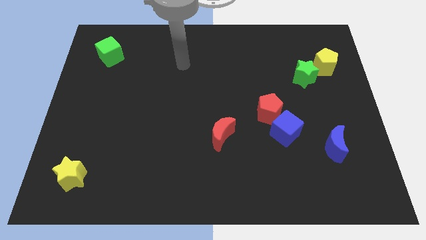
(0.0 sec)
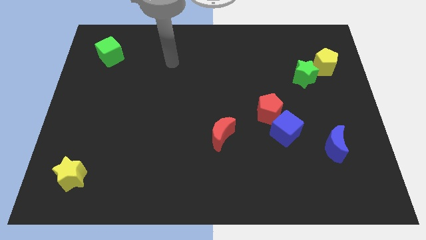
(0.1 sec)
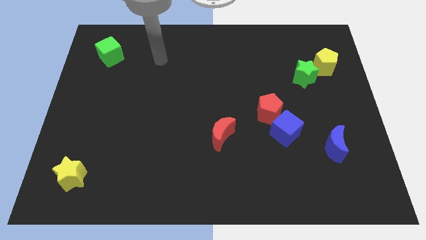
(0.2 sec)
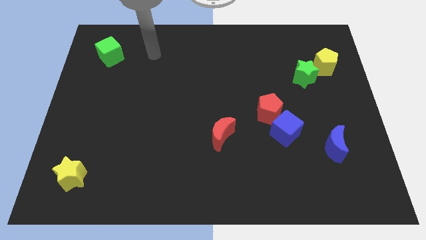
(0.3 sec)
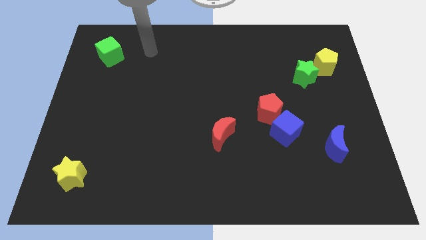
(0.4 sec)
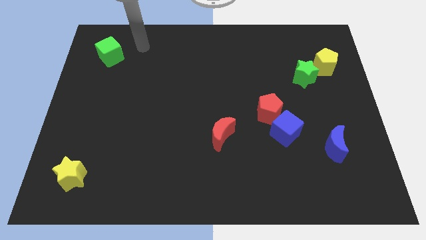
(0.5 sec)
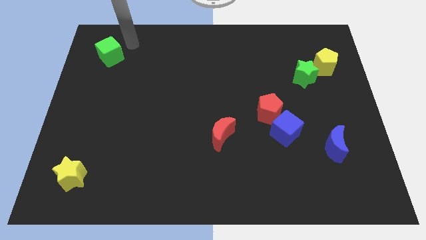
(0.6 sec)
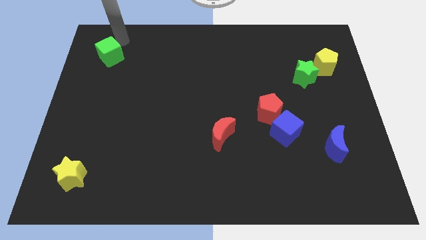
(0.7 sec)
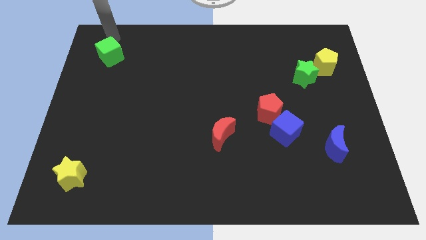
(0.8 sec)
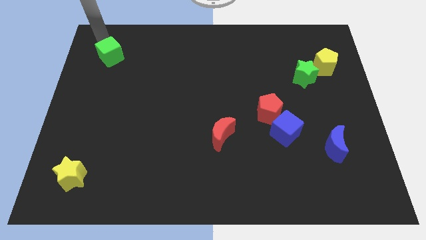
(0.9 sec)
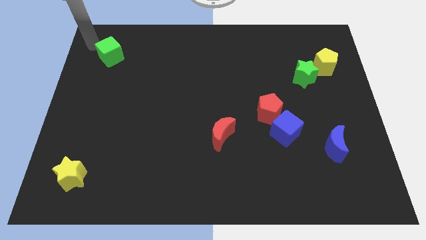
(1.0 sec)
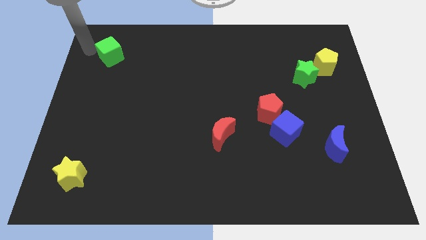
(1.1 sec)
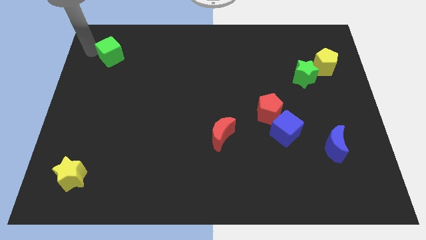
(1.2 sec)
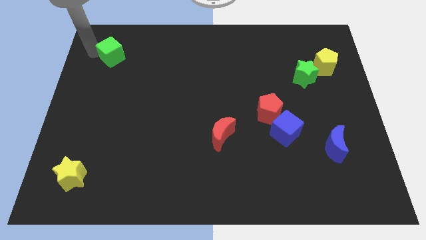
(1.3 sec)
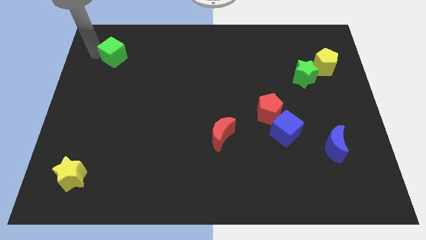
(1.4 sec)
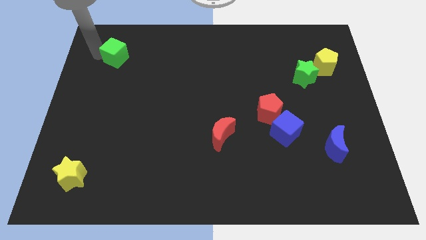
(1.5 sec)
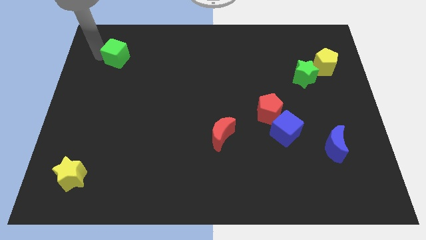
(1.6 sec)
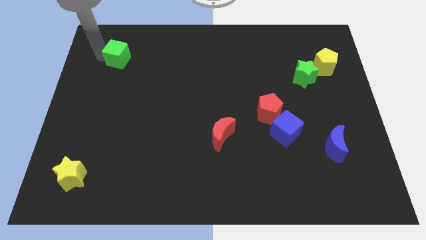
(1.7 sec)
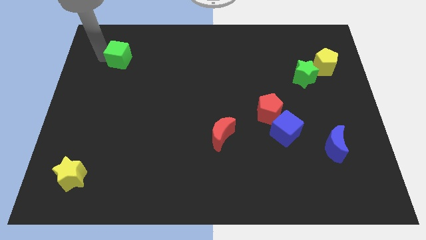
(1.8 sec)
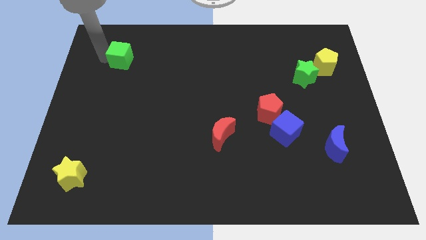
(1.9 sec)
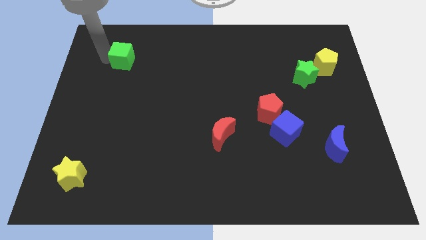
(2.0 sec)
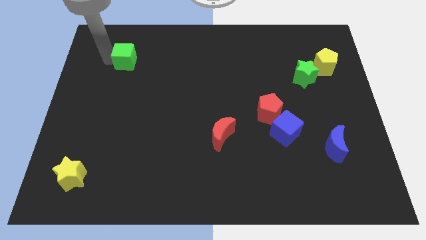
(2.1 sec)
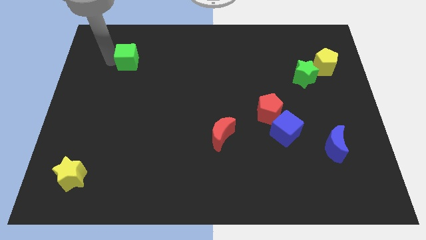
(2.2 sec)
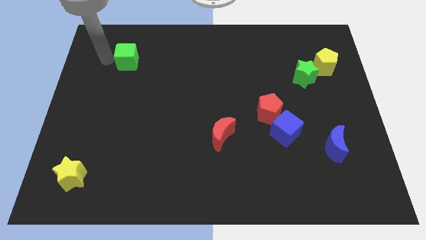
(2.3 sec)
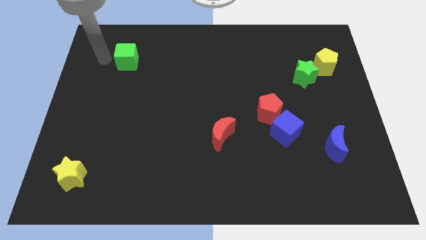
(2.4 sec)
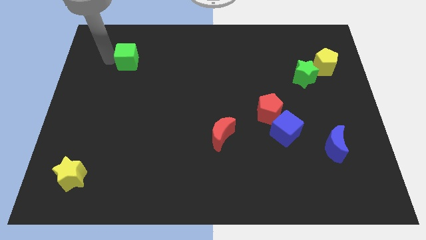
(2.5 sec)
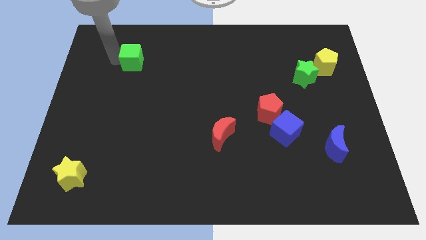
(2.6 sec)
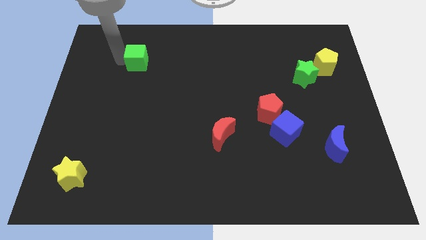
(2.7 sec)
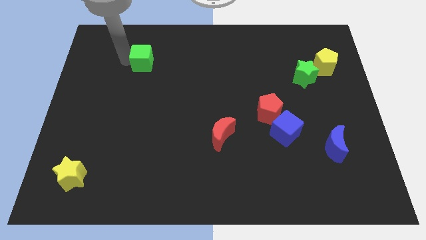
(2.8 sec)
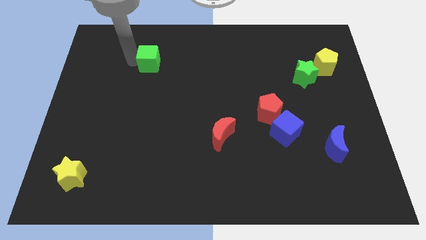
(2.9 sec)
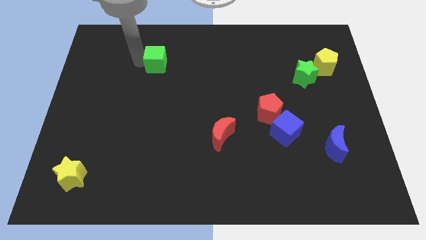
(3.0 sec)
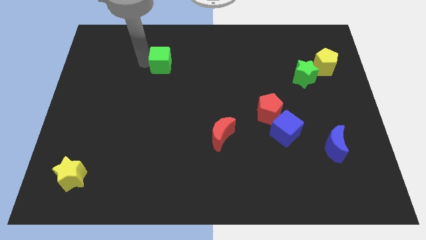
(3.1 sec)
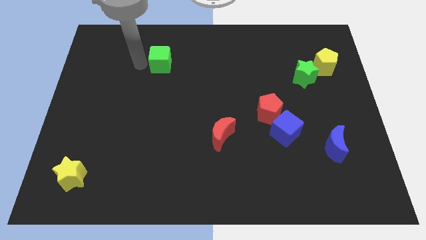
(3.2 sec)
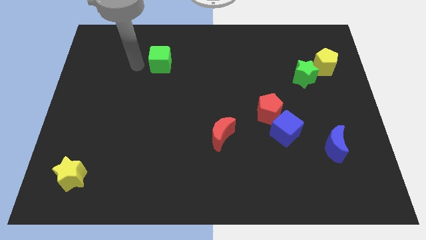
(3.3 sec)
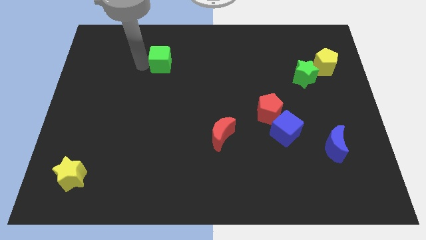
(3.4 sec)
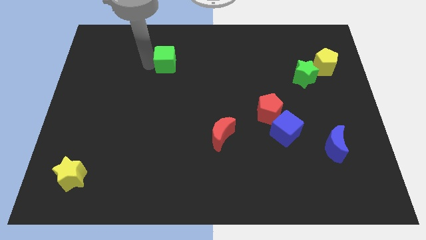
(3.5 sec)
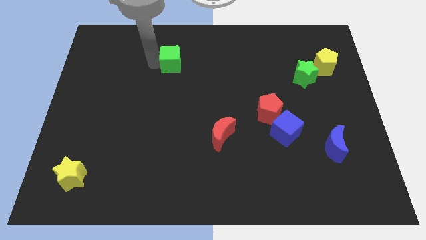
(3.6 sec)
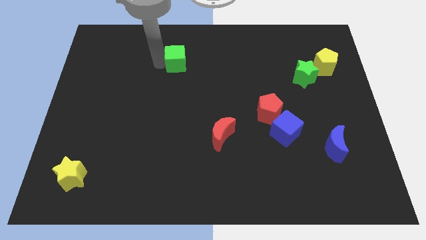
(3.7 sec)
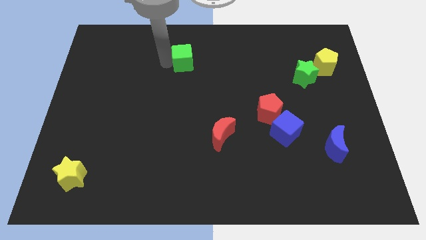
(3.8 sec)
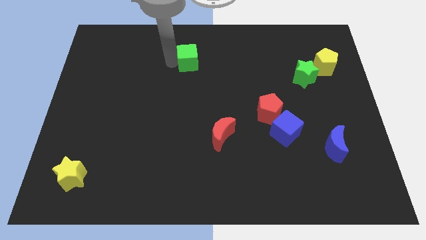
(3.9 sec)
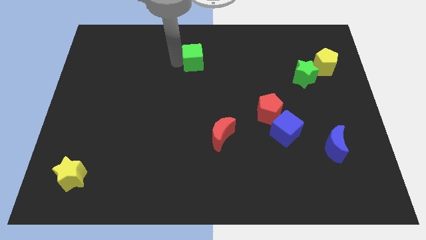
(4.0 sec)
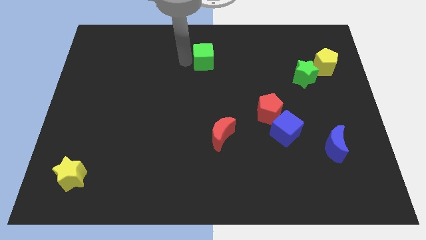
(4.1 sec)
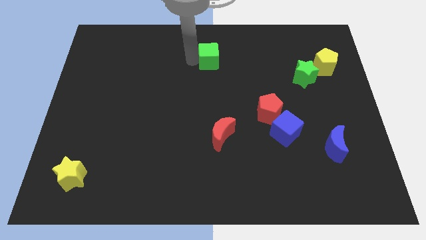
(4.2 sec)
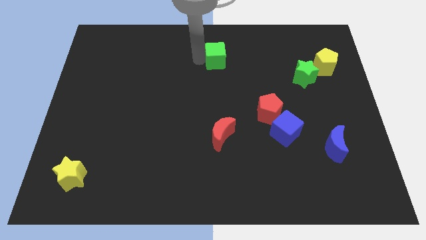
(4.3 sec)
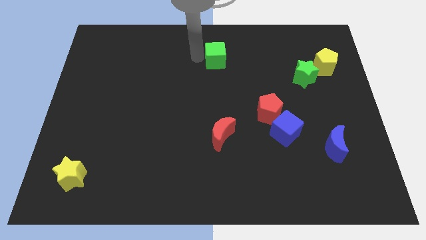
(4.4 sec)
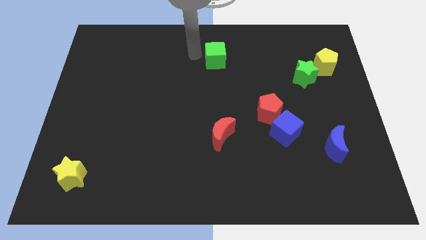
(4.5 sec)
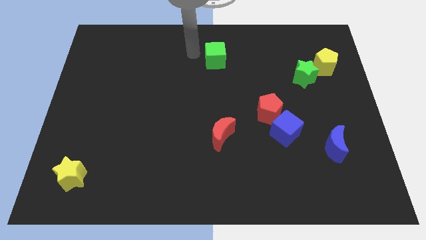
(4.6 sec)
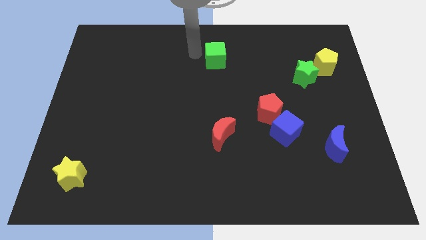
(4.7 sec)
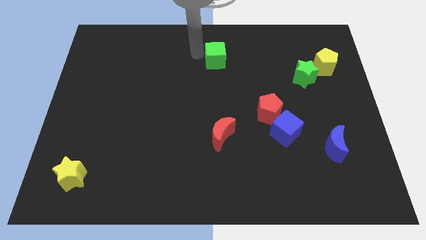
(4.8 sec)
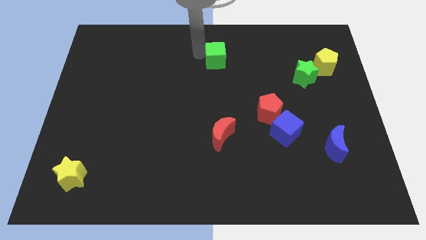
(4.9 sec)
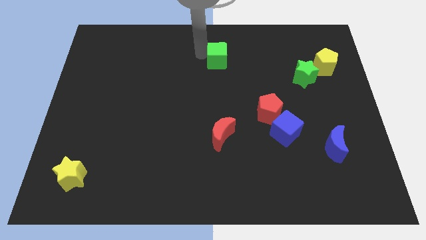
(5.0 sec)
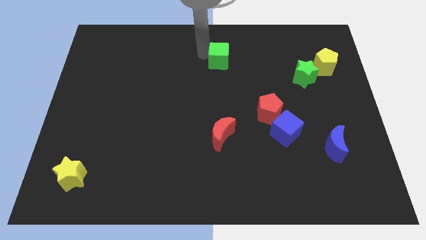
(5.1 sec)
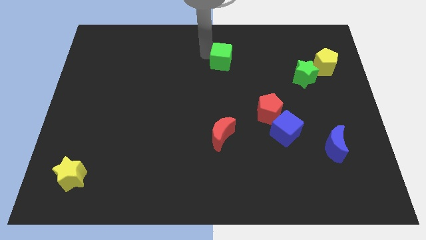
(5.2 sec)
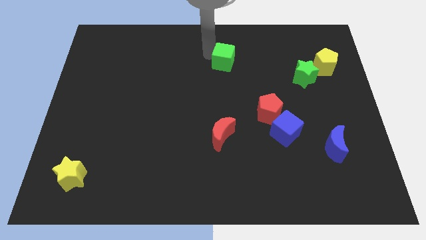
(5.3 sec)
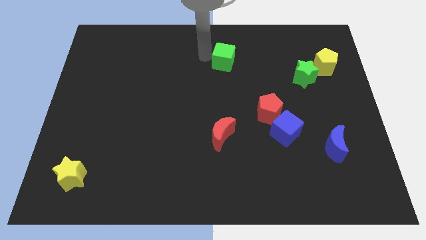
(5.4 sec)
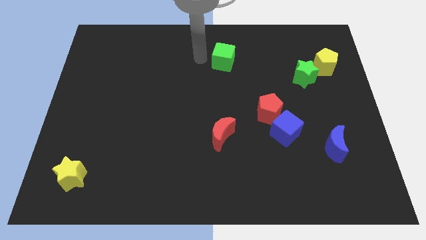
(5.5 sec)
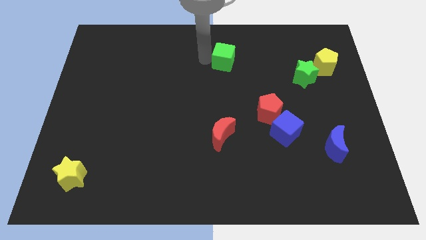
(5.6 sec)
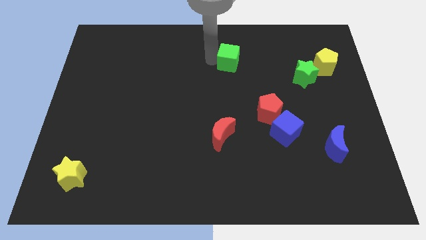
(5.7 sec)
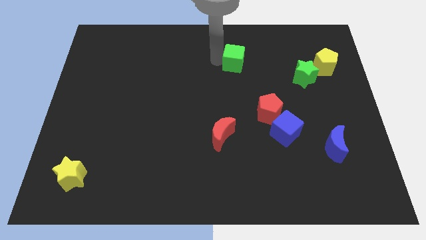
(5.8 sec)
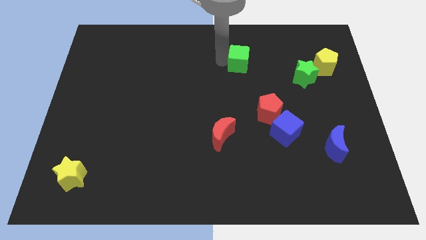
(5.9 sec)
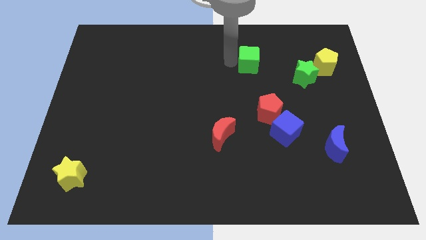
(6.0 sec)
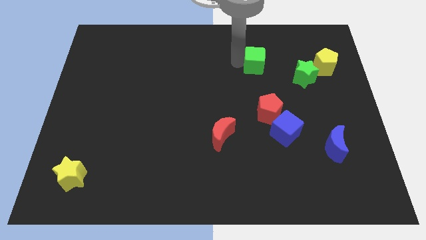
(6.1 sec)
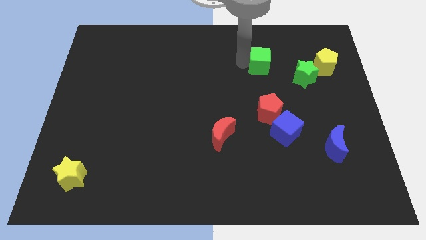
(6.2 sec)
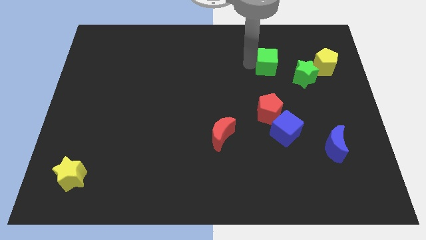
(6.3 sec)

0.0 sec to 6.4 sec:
put the green cube to the left side of the yellow pentagon
